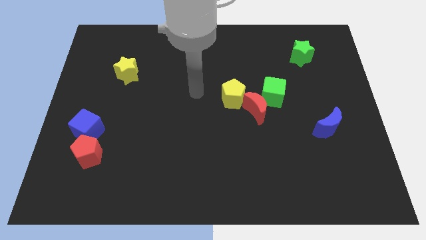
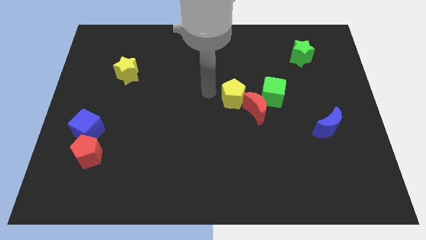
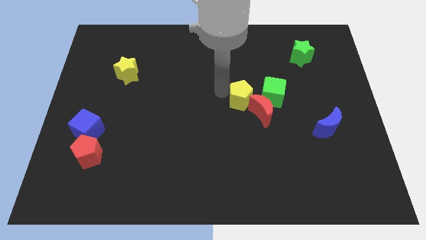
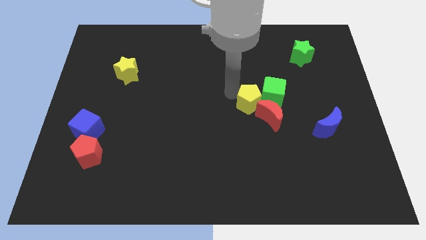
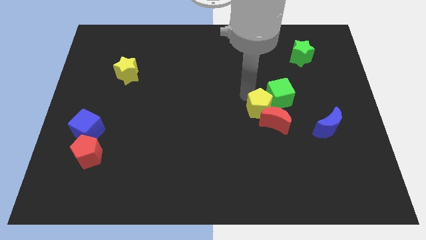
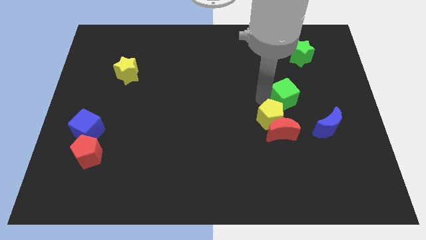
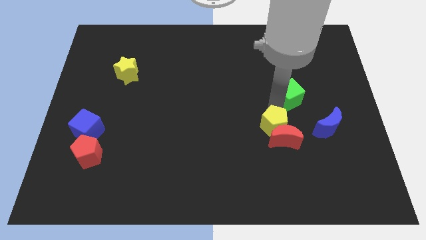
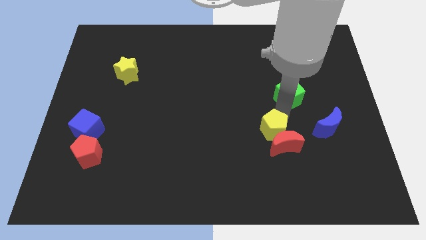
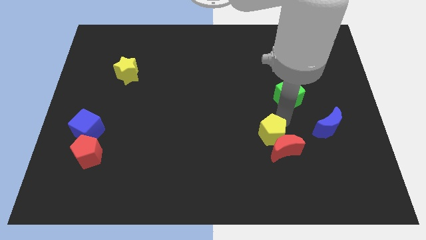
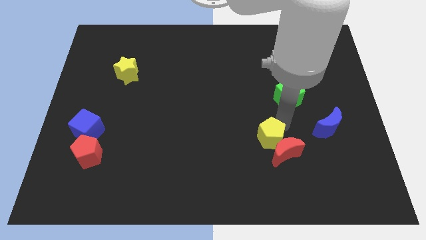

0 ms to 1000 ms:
move the red moon away from the green cube and yellow pentagon

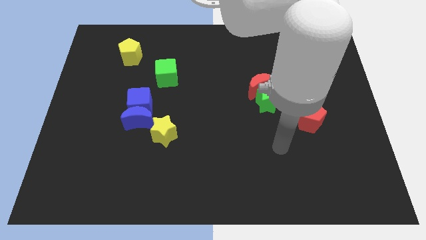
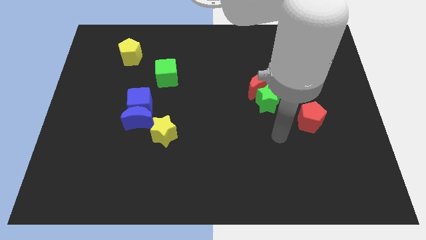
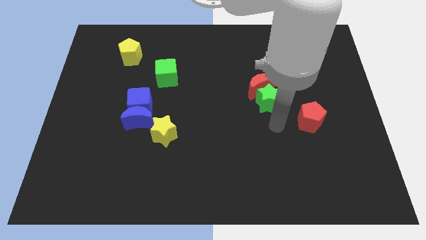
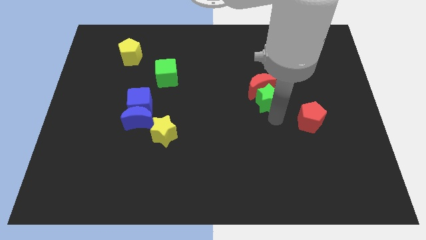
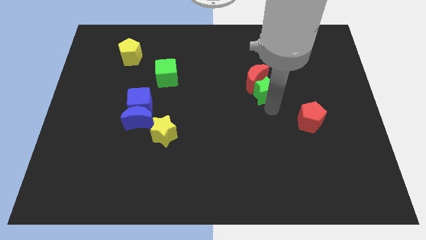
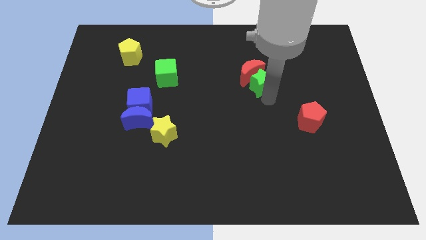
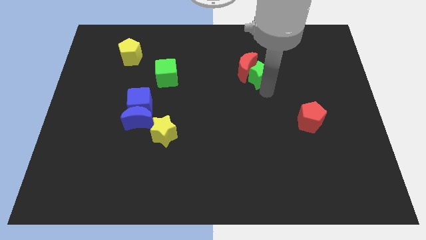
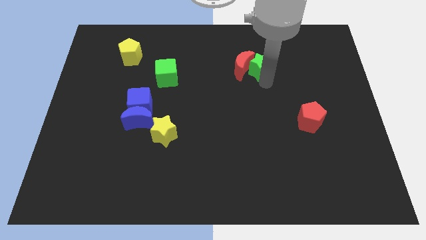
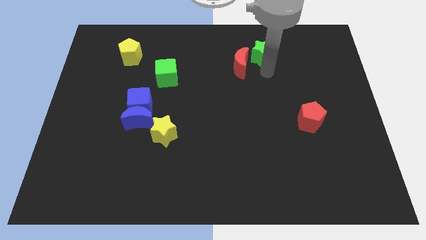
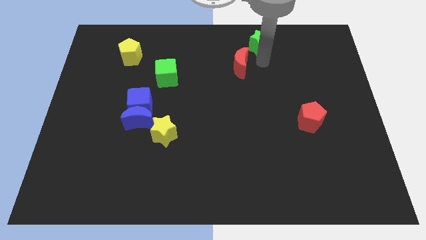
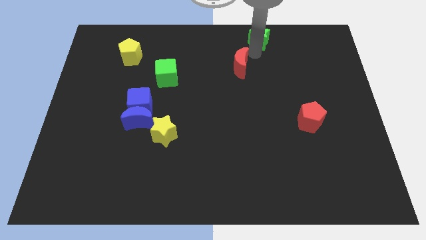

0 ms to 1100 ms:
separate the red moon from the green star

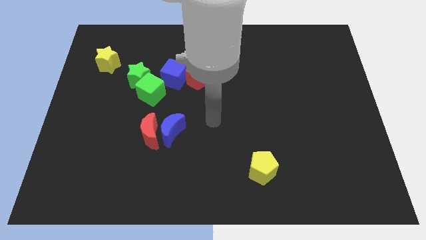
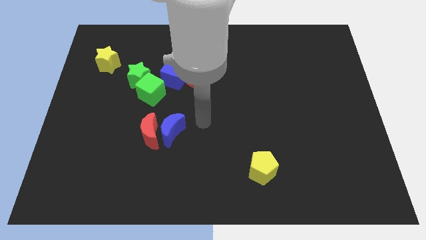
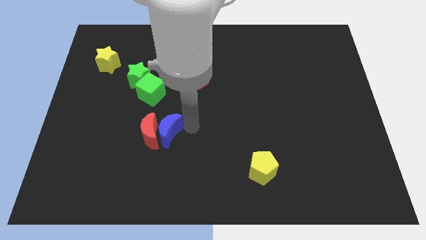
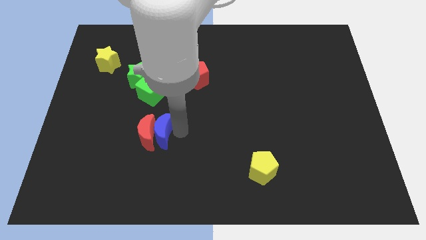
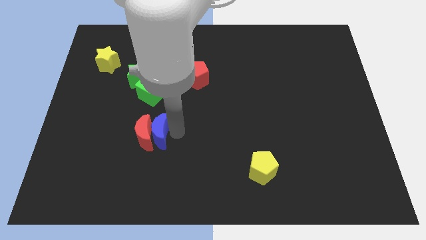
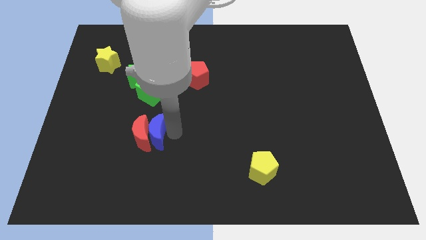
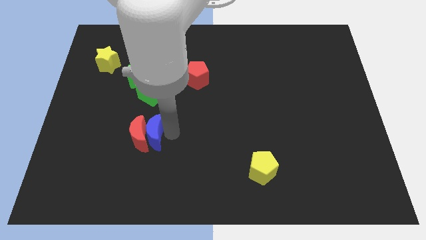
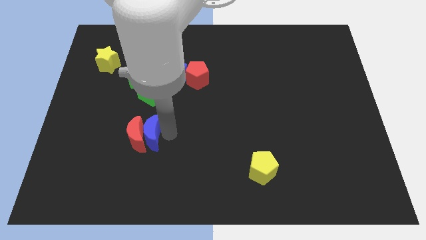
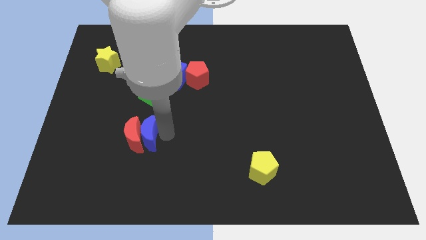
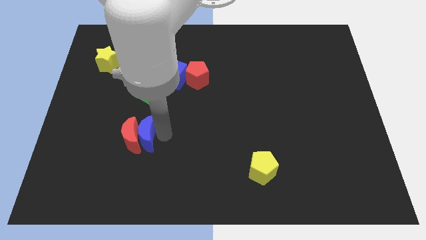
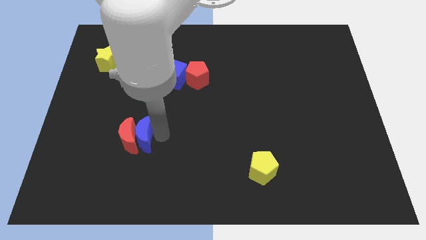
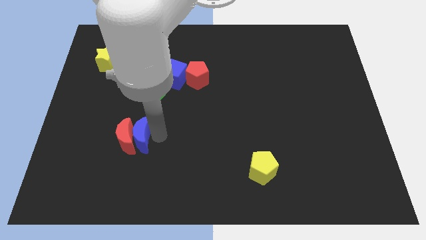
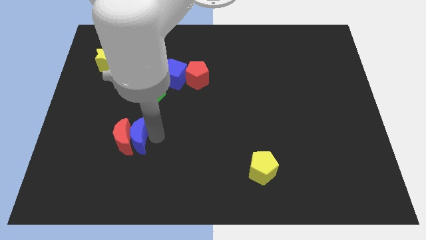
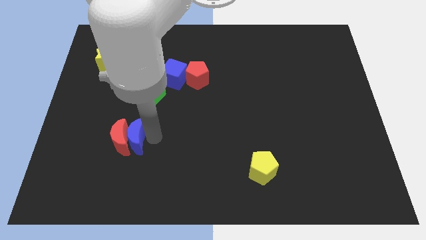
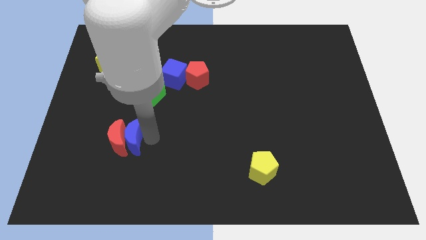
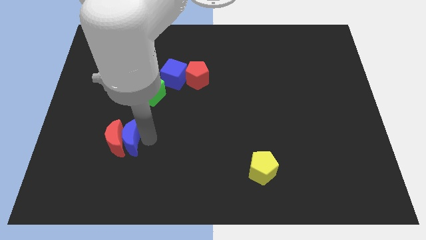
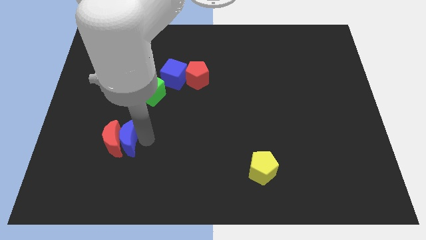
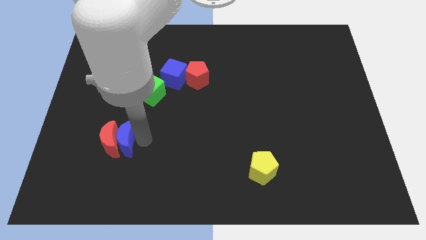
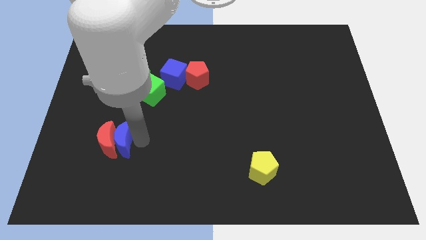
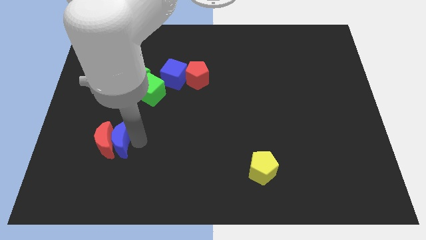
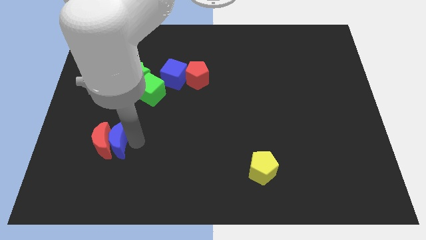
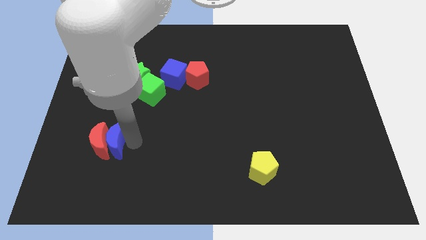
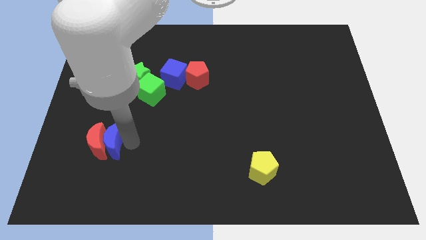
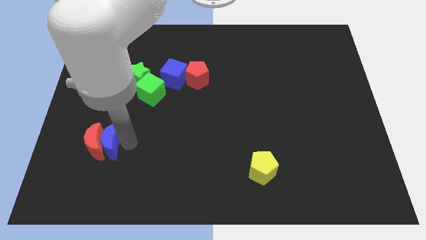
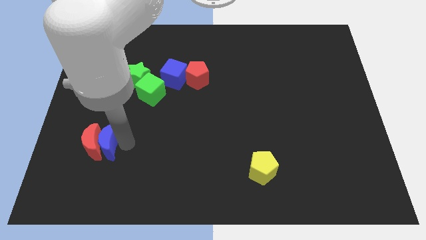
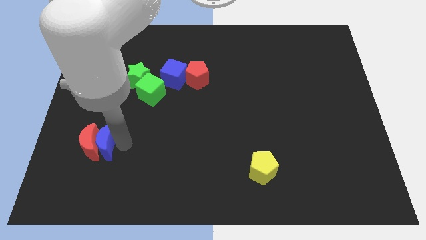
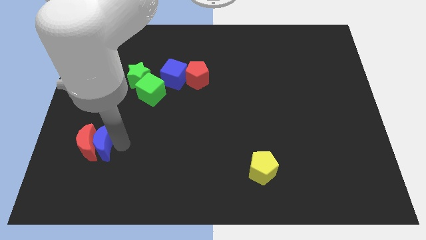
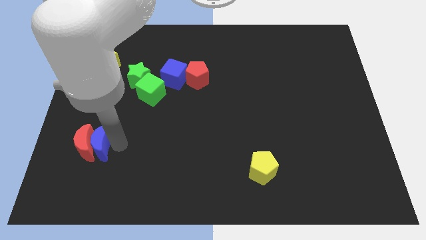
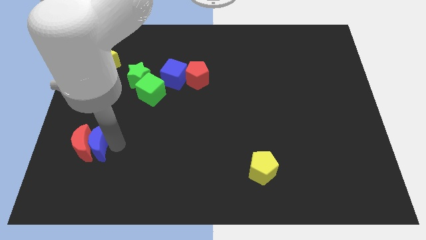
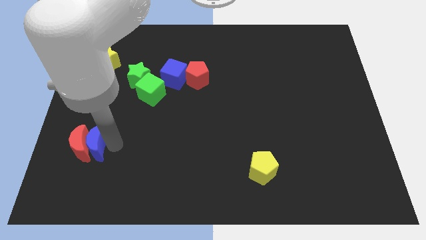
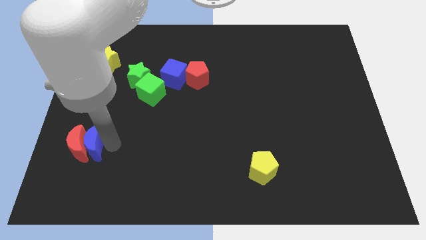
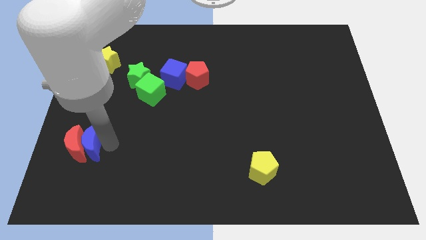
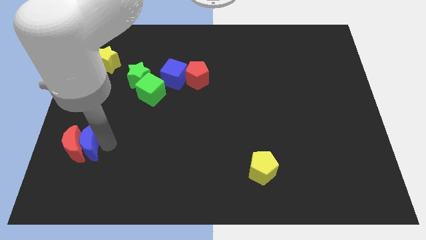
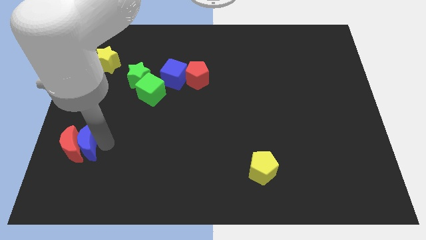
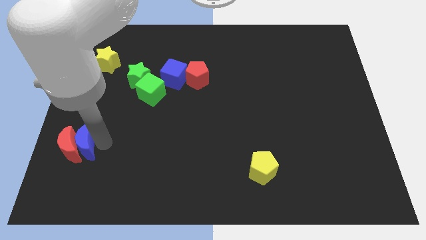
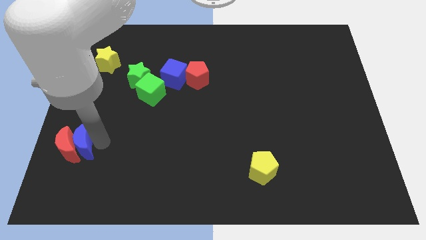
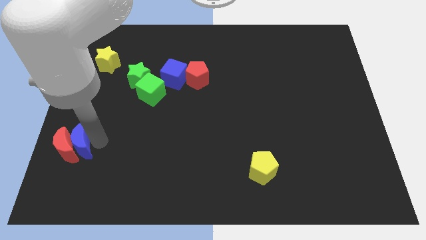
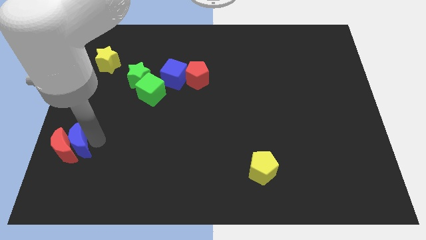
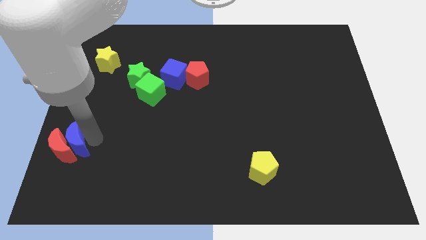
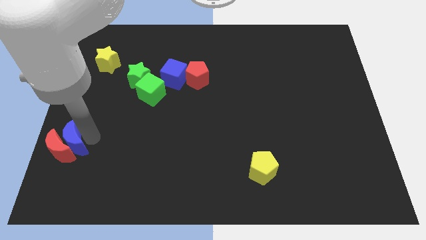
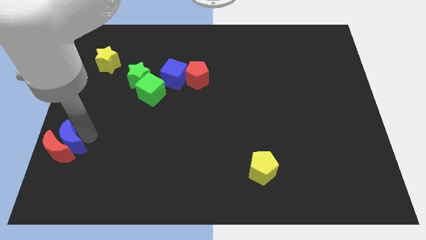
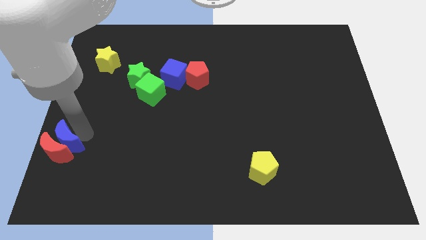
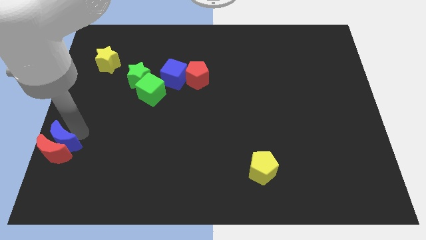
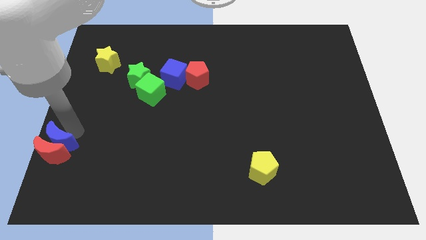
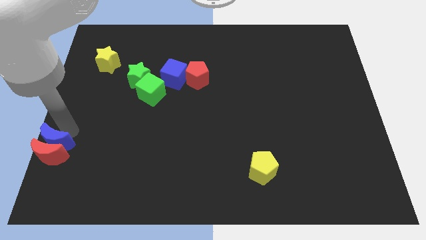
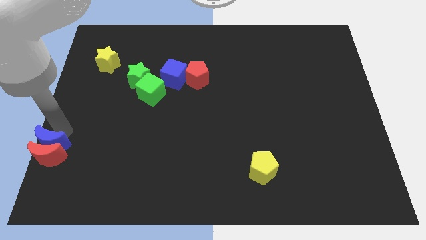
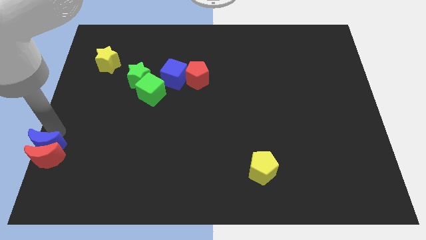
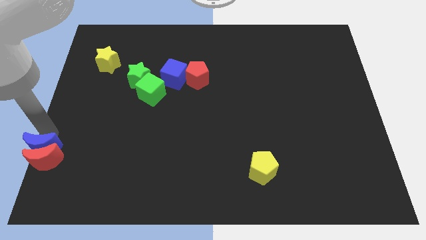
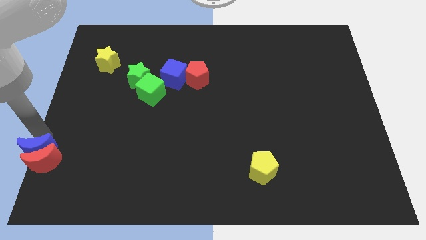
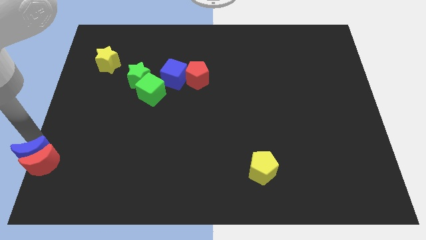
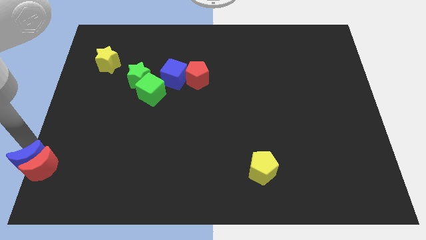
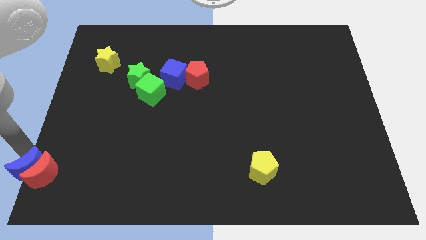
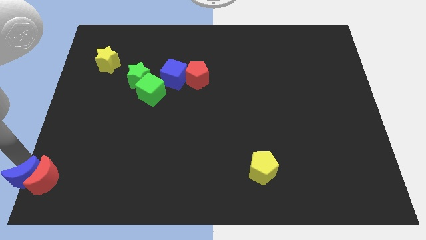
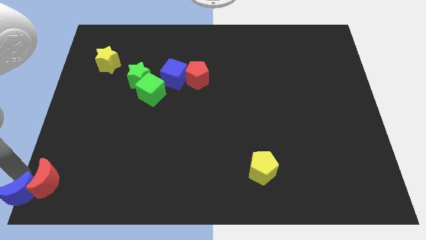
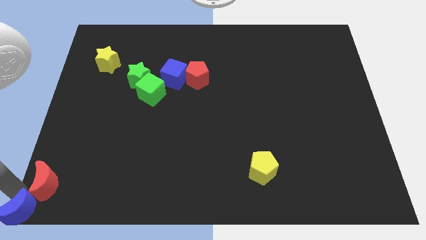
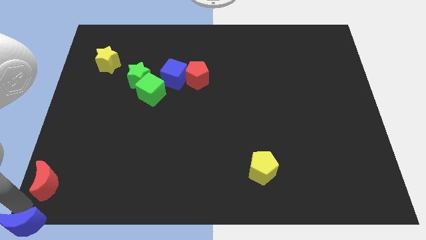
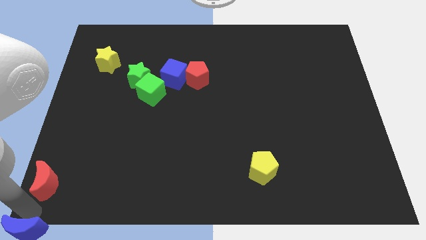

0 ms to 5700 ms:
move the red moon away from the blue moon

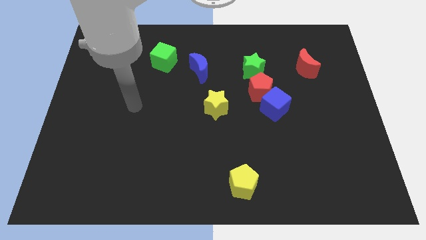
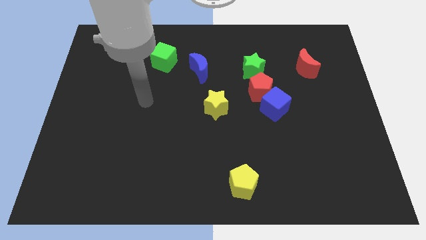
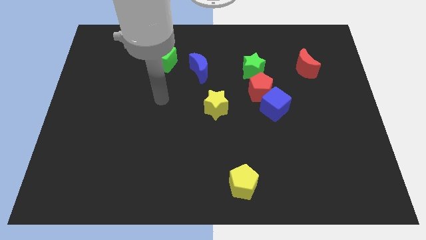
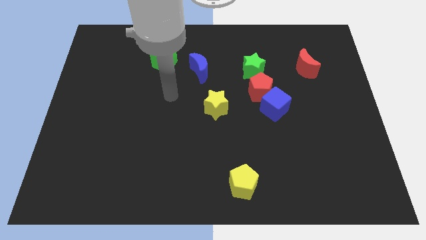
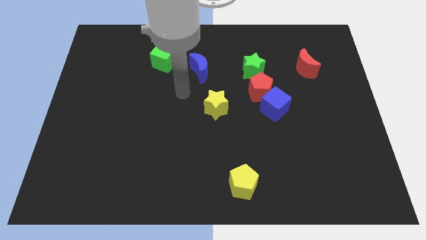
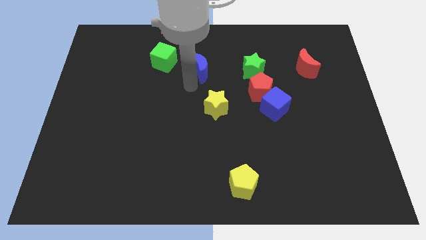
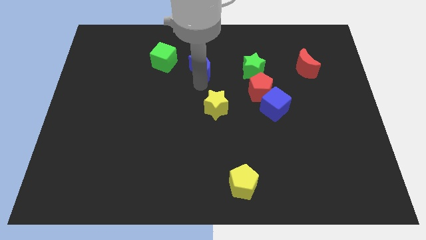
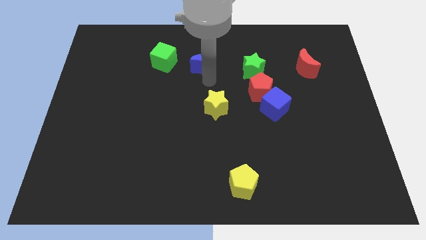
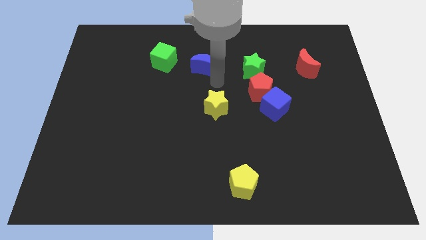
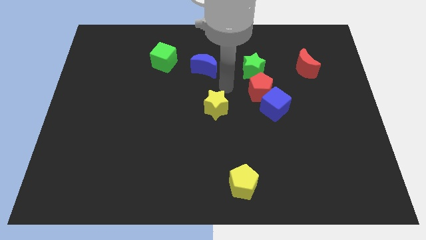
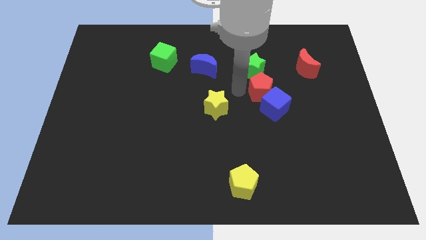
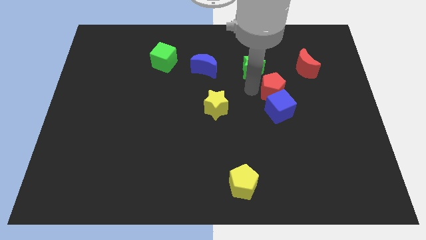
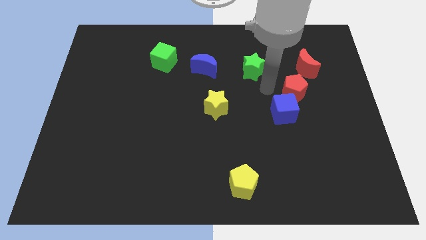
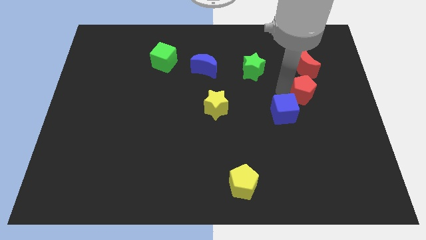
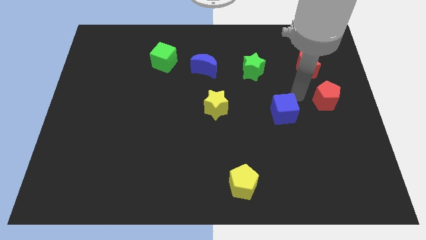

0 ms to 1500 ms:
move the blue cube away from the red pentagon

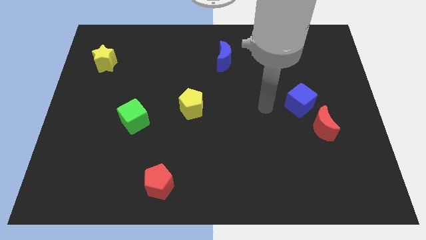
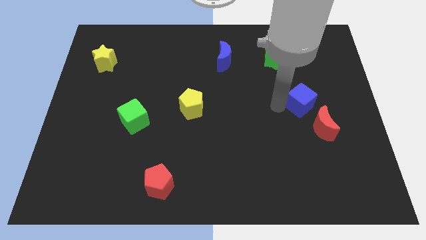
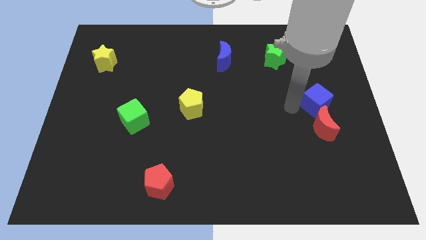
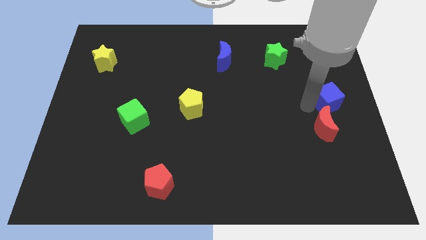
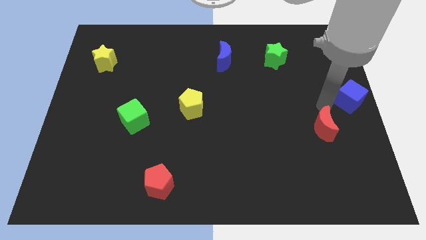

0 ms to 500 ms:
pull the red moon apart from the blue cube
